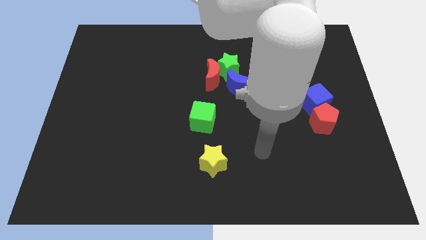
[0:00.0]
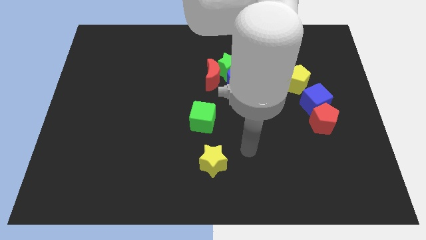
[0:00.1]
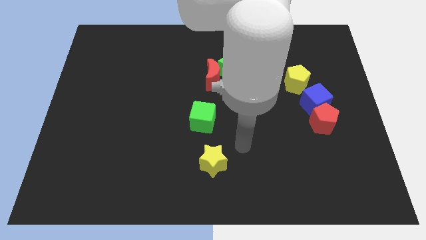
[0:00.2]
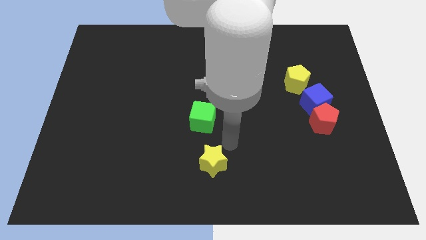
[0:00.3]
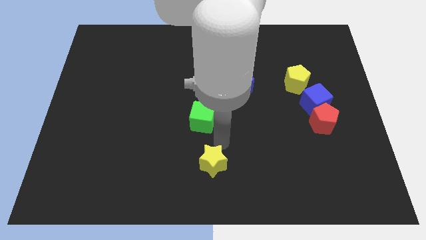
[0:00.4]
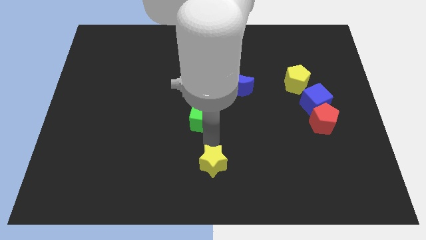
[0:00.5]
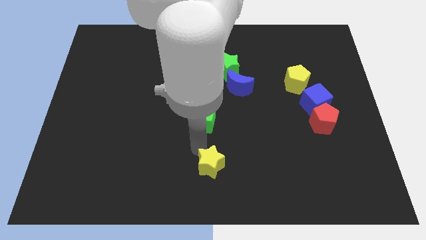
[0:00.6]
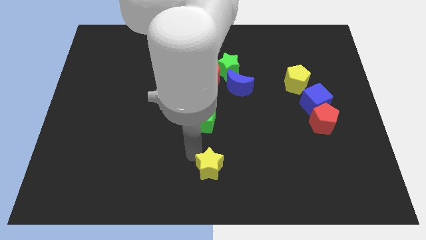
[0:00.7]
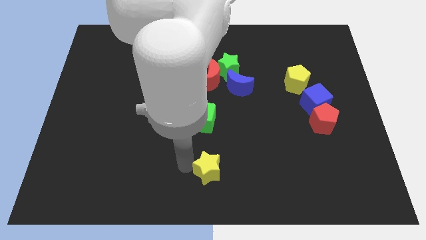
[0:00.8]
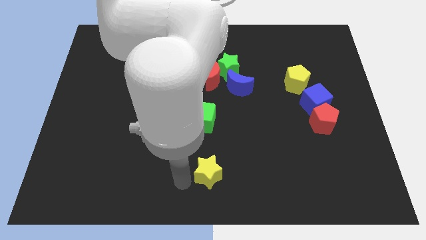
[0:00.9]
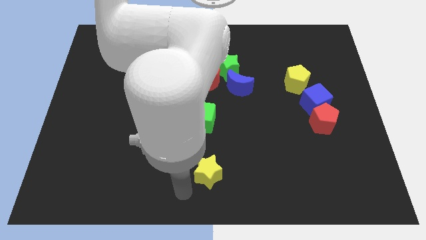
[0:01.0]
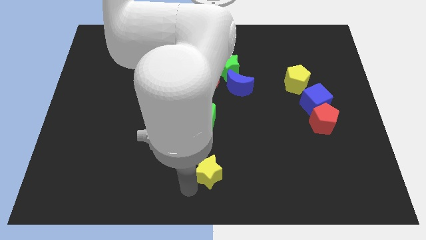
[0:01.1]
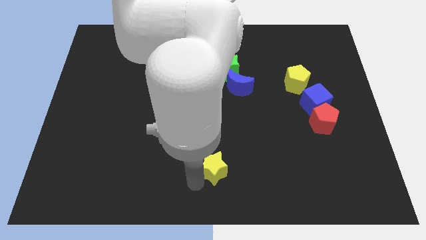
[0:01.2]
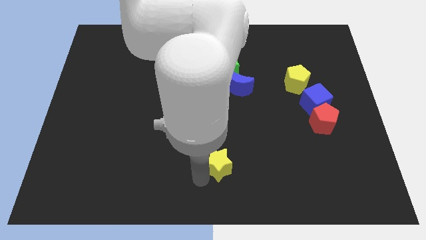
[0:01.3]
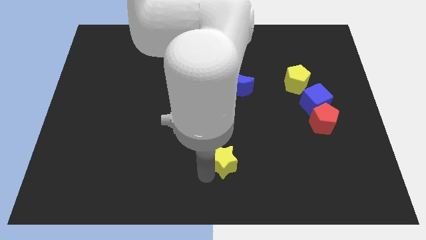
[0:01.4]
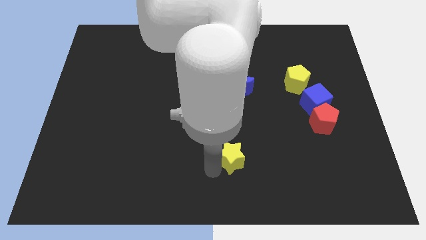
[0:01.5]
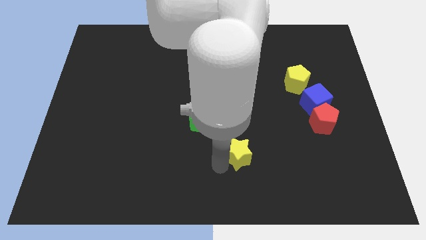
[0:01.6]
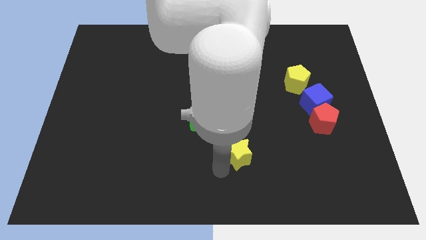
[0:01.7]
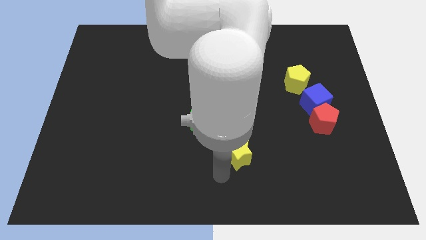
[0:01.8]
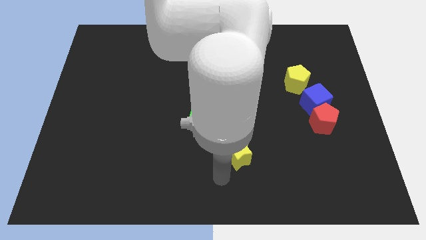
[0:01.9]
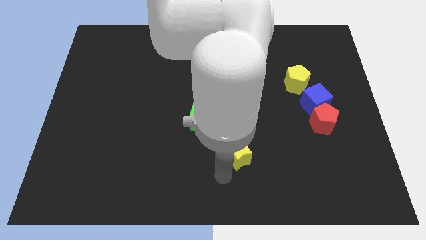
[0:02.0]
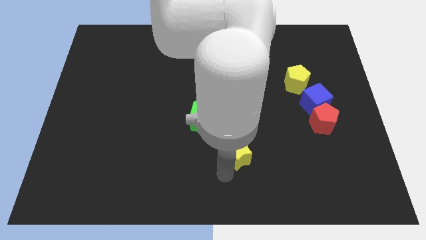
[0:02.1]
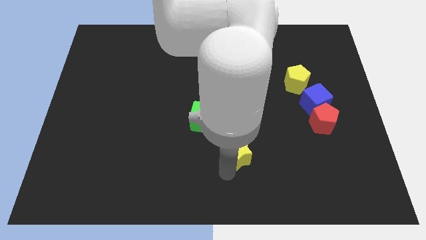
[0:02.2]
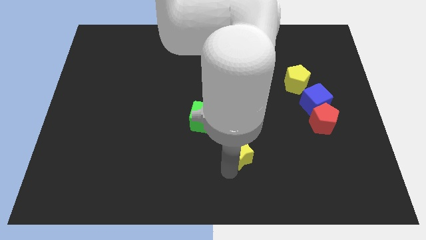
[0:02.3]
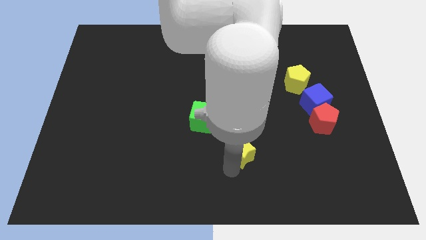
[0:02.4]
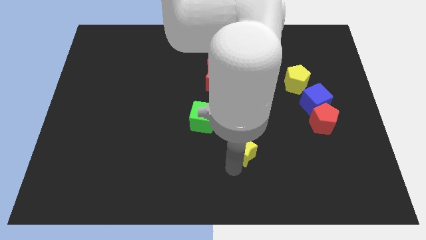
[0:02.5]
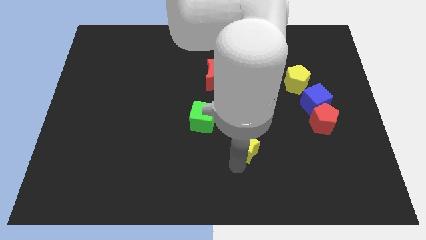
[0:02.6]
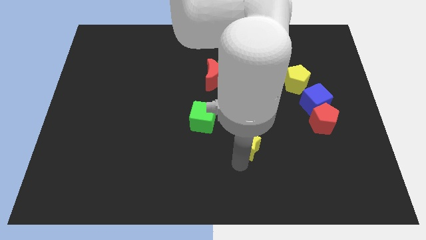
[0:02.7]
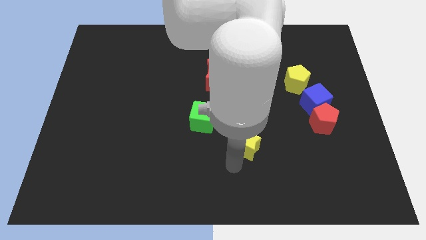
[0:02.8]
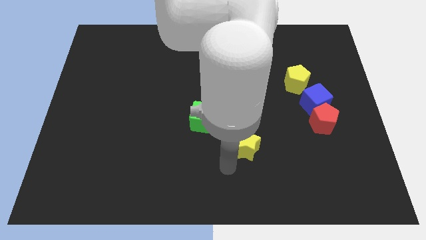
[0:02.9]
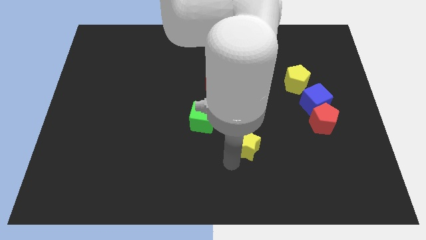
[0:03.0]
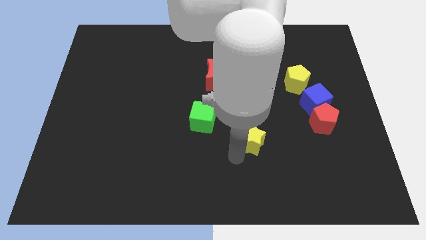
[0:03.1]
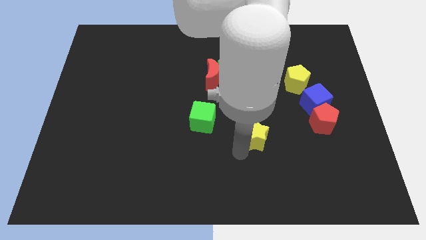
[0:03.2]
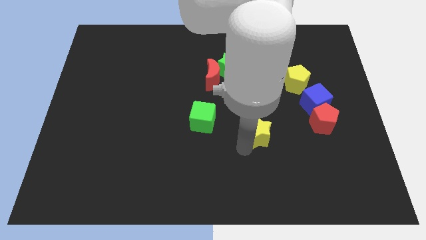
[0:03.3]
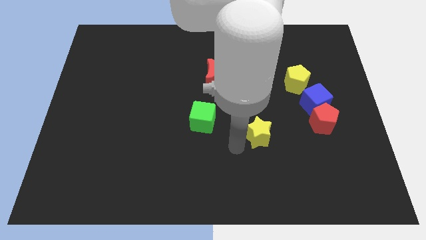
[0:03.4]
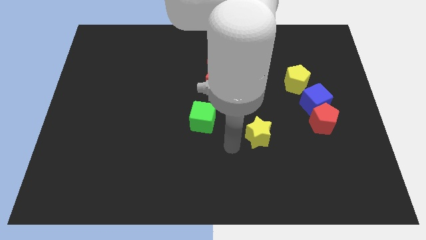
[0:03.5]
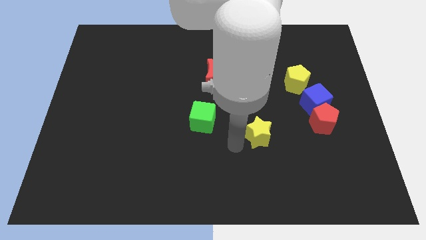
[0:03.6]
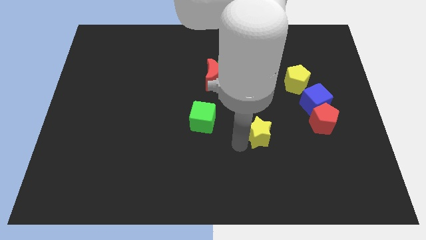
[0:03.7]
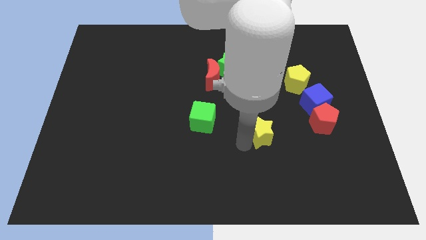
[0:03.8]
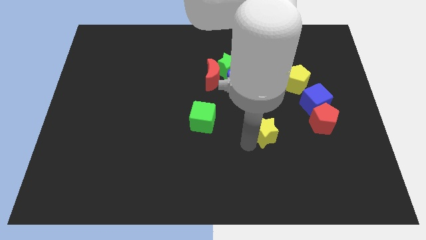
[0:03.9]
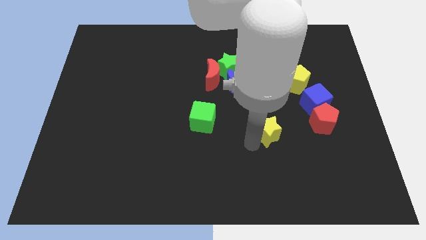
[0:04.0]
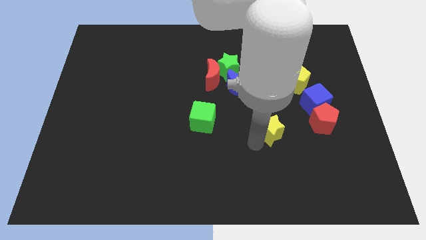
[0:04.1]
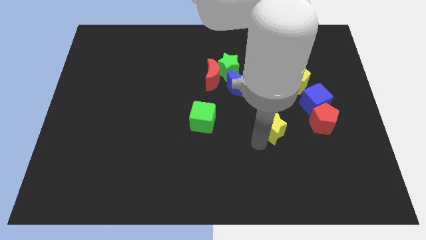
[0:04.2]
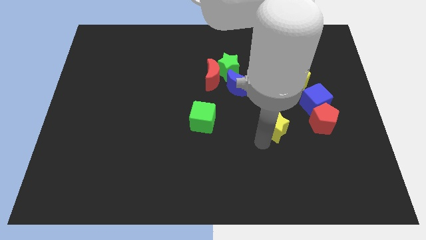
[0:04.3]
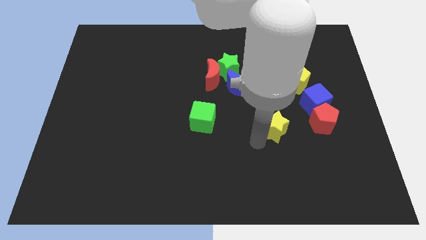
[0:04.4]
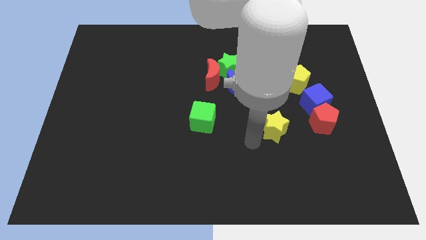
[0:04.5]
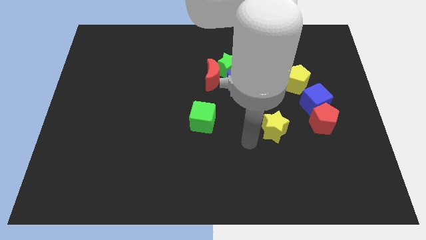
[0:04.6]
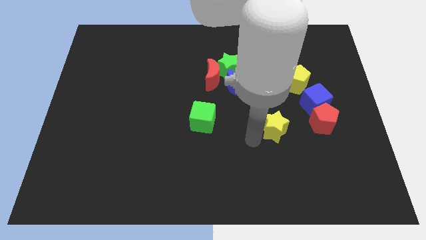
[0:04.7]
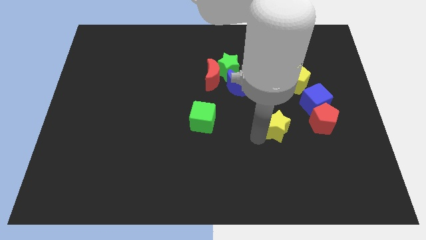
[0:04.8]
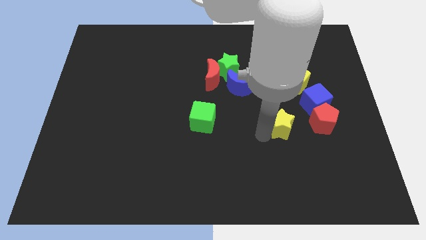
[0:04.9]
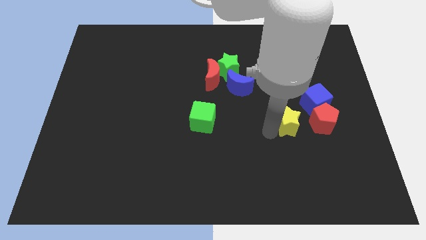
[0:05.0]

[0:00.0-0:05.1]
push the yellow star to the bottom of the yellow pentagon

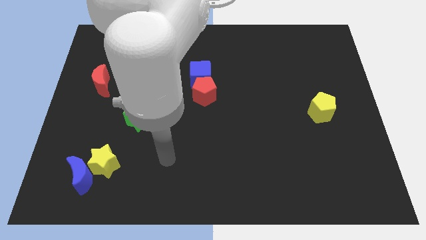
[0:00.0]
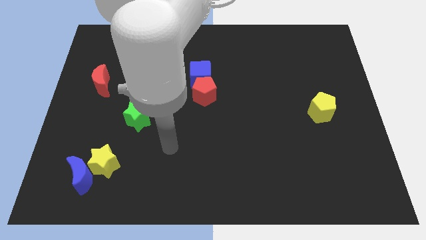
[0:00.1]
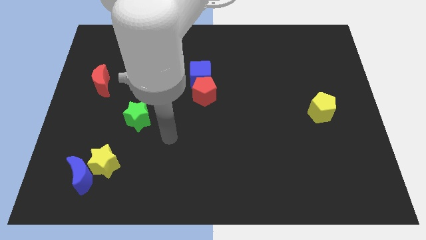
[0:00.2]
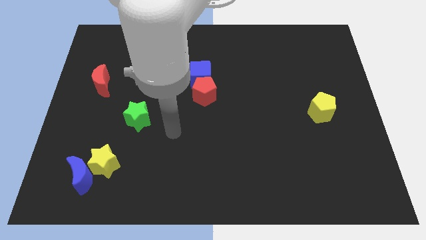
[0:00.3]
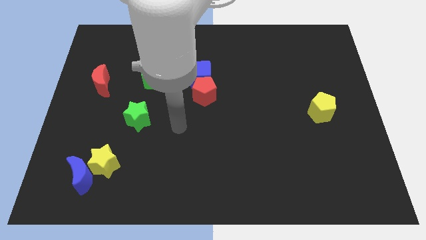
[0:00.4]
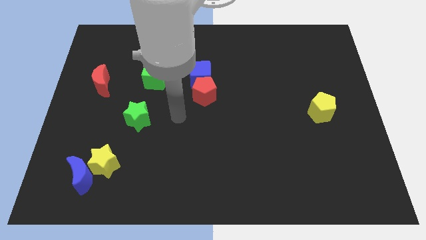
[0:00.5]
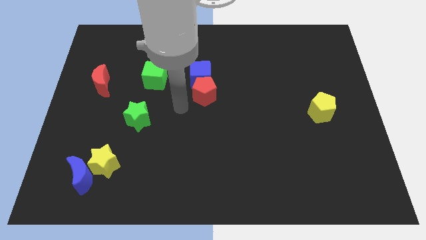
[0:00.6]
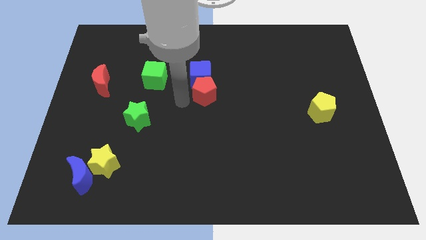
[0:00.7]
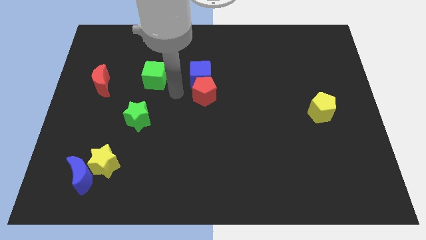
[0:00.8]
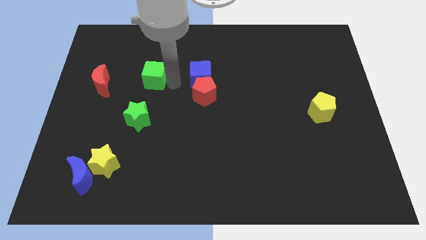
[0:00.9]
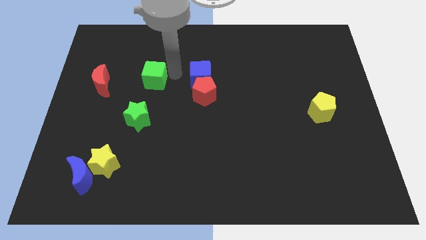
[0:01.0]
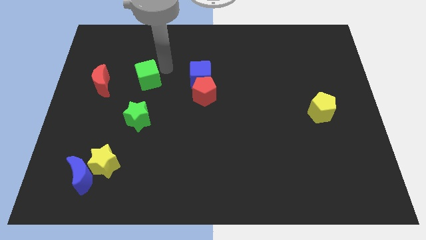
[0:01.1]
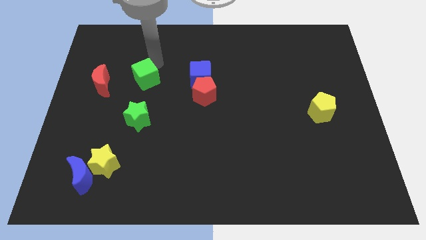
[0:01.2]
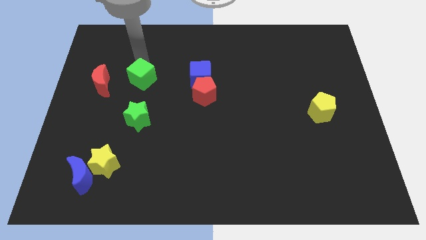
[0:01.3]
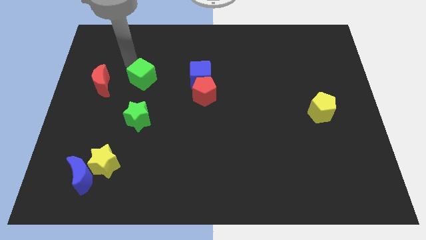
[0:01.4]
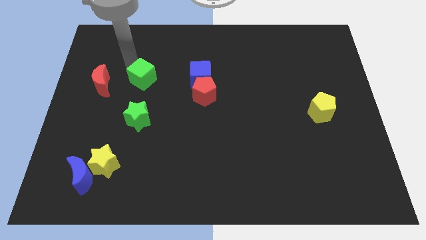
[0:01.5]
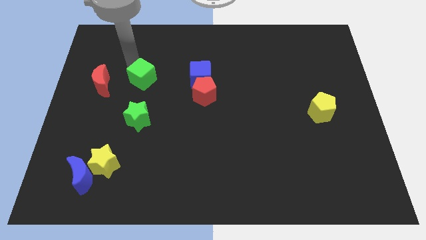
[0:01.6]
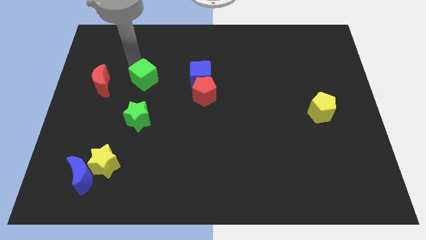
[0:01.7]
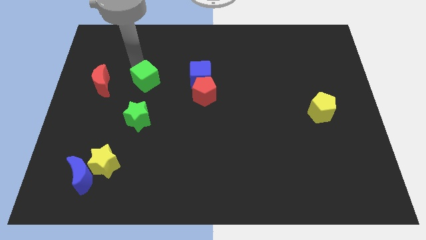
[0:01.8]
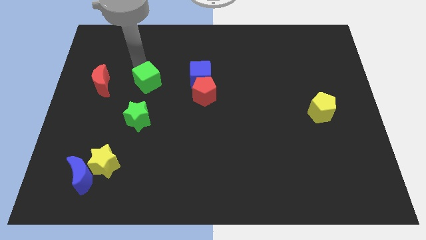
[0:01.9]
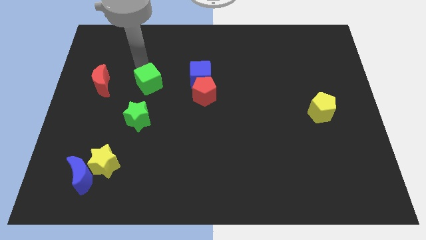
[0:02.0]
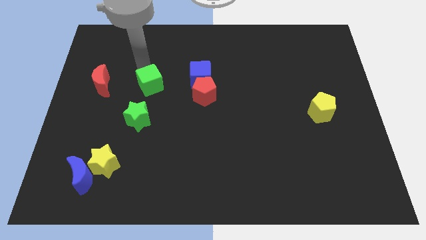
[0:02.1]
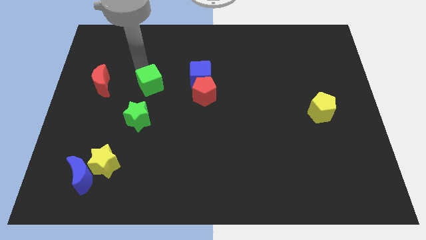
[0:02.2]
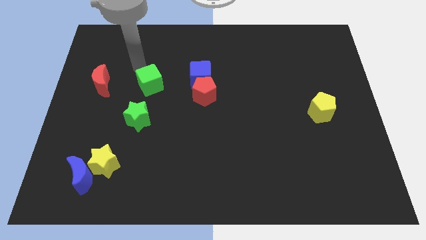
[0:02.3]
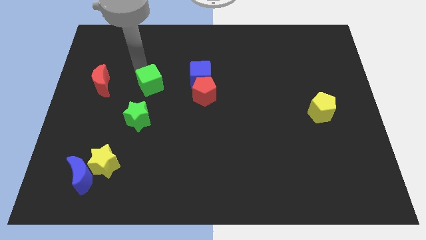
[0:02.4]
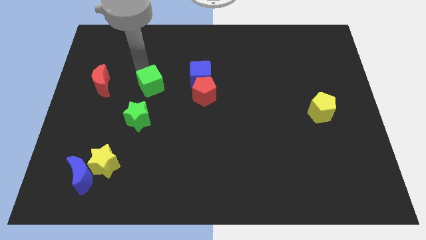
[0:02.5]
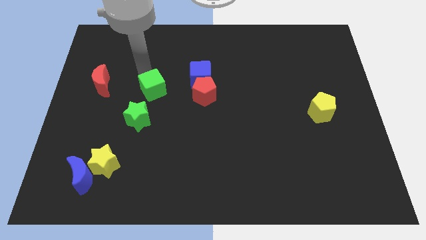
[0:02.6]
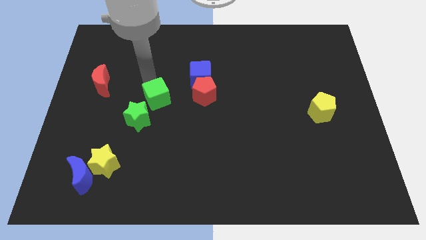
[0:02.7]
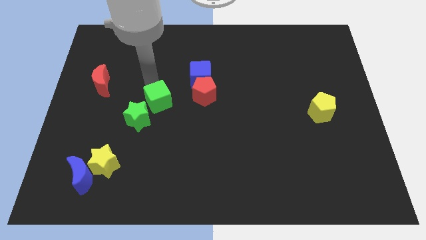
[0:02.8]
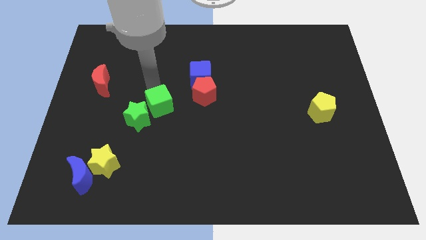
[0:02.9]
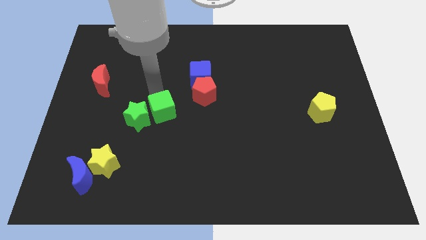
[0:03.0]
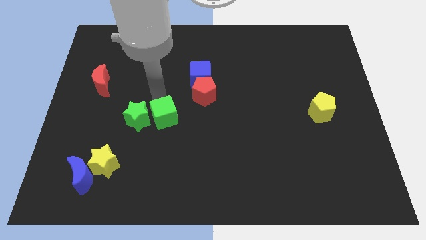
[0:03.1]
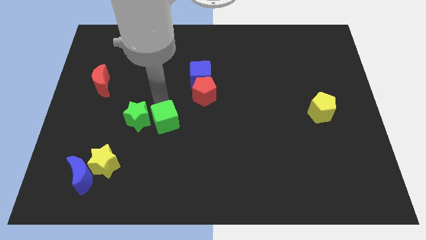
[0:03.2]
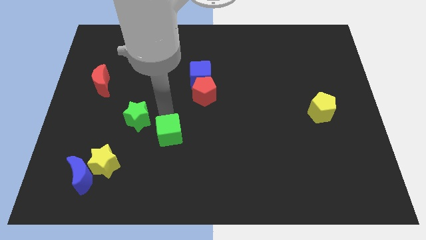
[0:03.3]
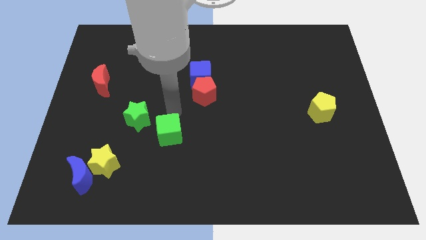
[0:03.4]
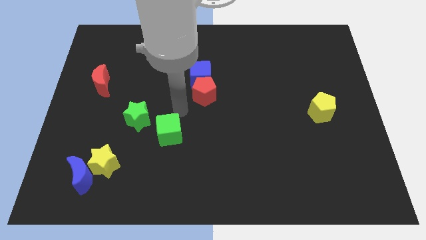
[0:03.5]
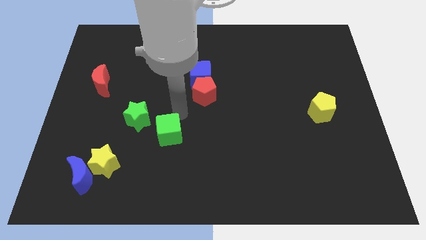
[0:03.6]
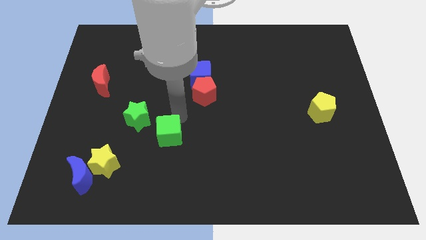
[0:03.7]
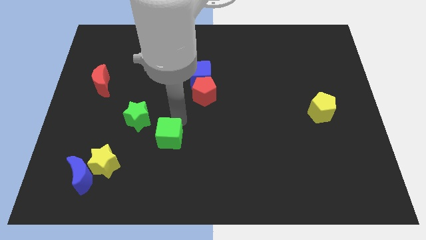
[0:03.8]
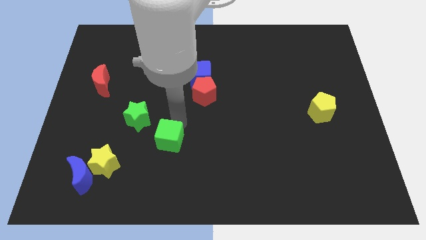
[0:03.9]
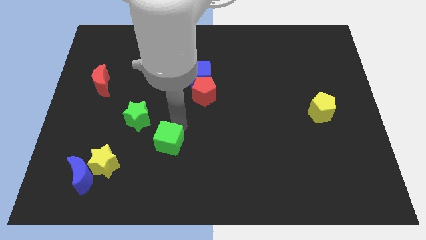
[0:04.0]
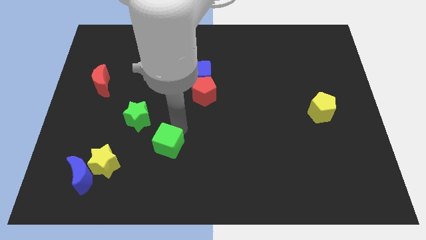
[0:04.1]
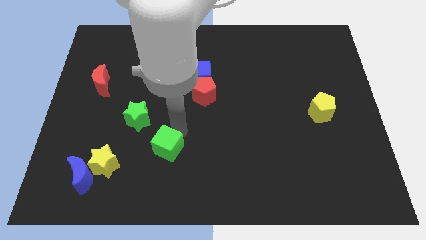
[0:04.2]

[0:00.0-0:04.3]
slide the green cube just right of the yellow star
